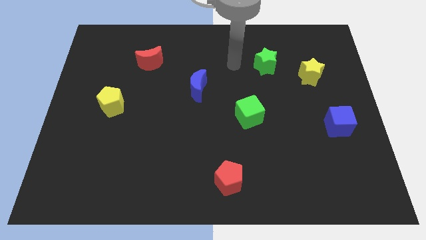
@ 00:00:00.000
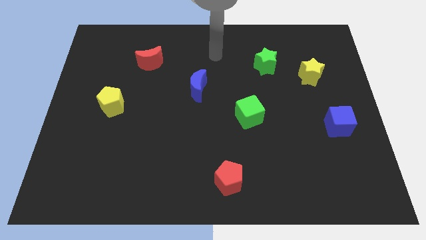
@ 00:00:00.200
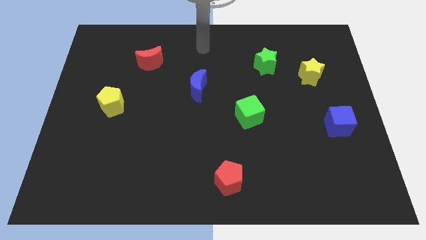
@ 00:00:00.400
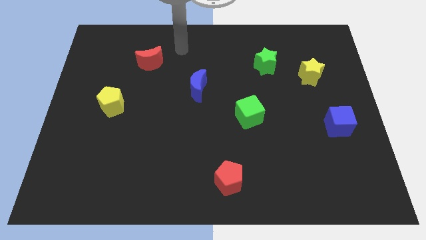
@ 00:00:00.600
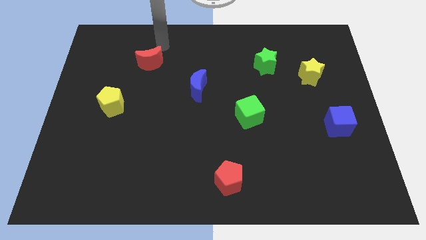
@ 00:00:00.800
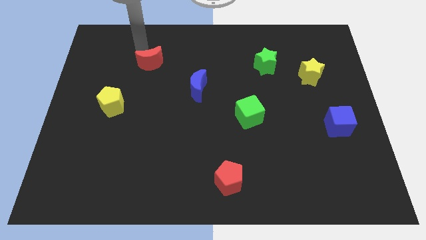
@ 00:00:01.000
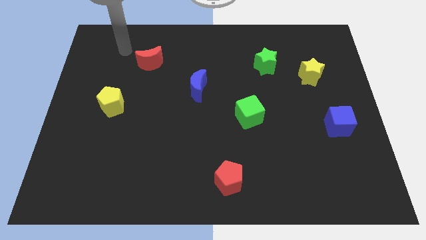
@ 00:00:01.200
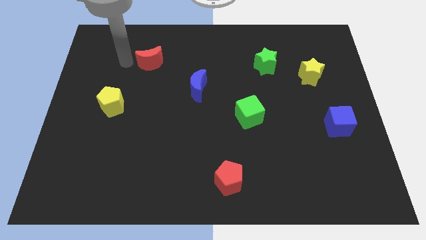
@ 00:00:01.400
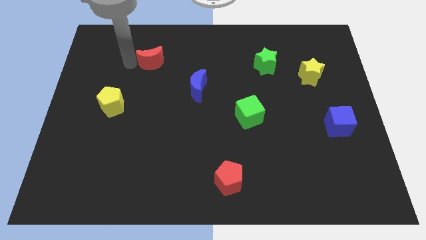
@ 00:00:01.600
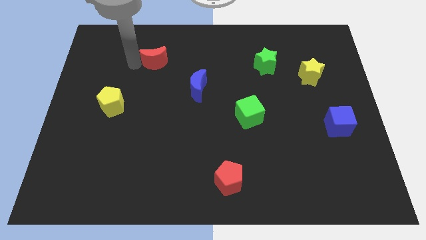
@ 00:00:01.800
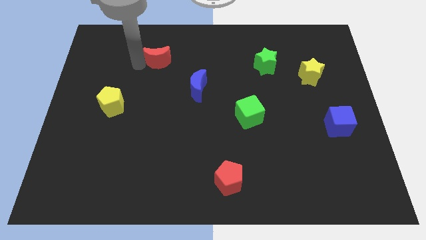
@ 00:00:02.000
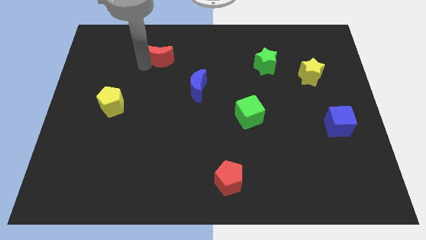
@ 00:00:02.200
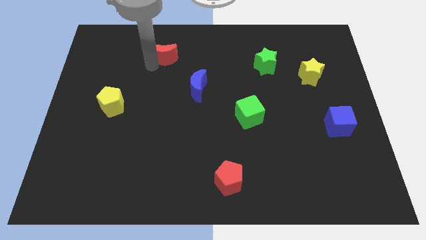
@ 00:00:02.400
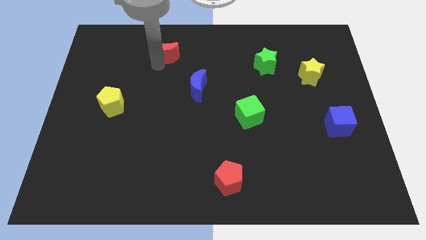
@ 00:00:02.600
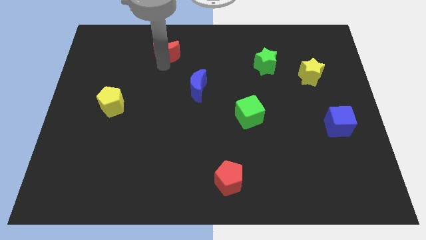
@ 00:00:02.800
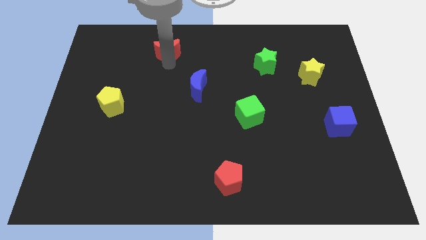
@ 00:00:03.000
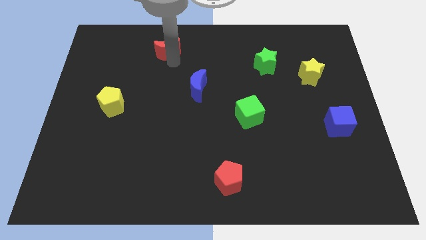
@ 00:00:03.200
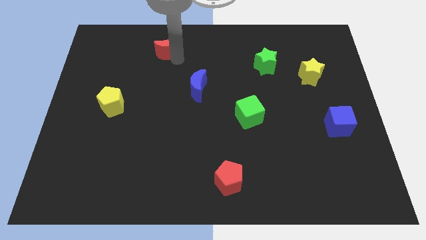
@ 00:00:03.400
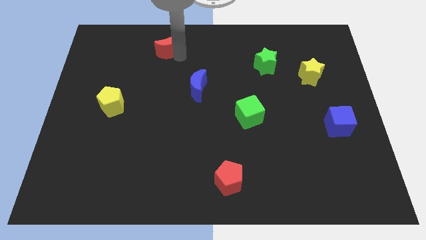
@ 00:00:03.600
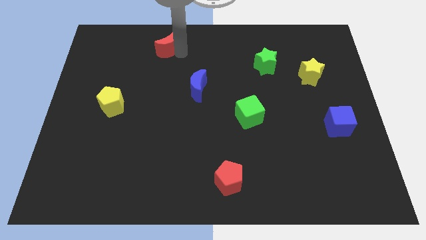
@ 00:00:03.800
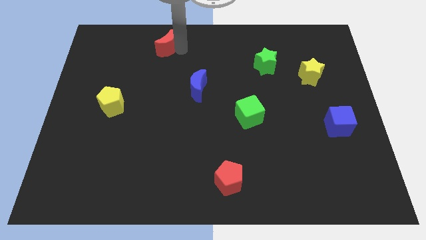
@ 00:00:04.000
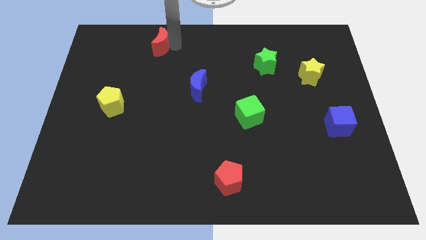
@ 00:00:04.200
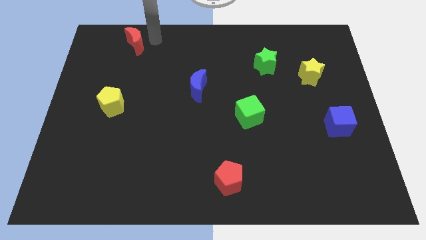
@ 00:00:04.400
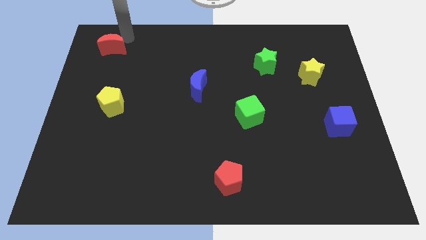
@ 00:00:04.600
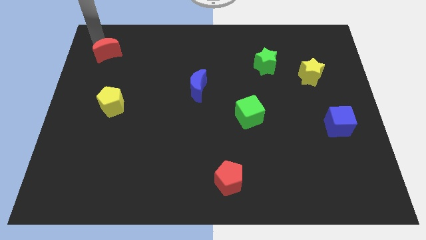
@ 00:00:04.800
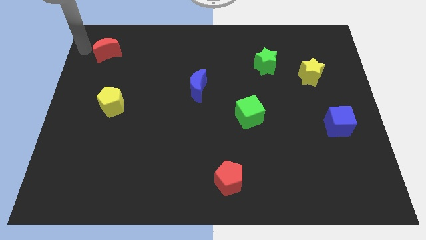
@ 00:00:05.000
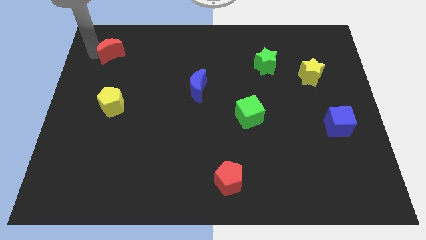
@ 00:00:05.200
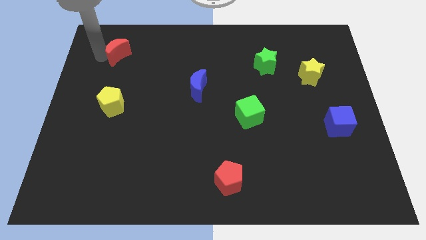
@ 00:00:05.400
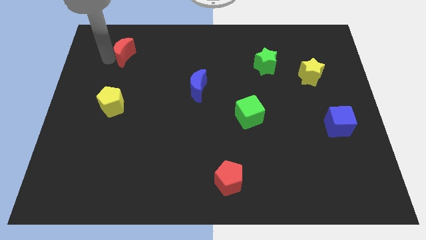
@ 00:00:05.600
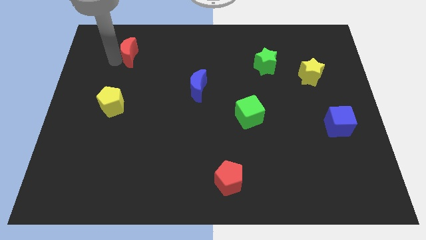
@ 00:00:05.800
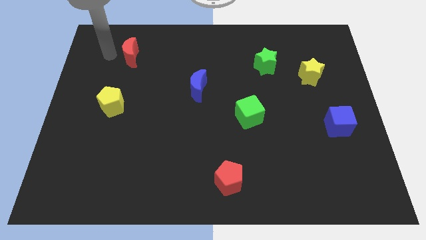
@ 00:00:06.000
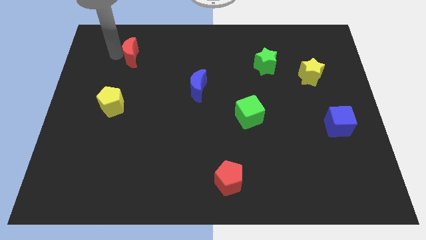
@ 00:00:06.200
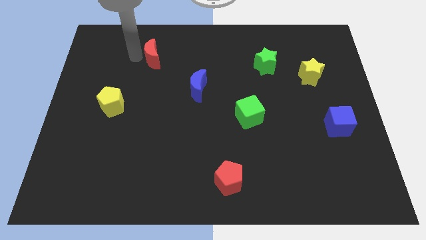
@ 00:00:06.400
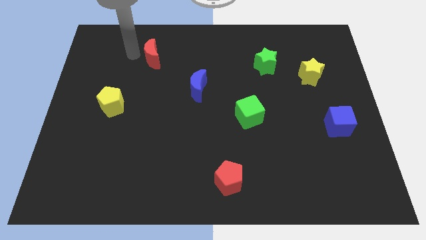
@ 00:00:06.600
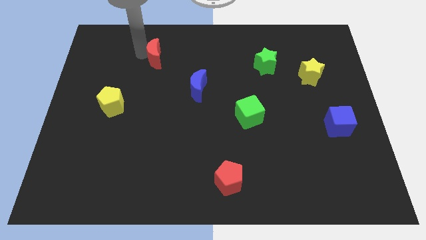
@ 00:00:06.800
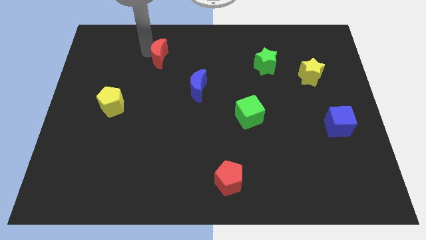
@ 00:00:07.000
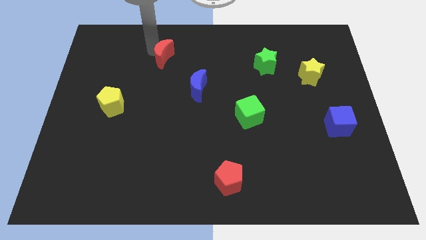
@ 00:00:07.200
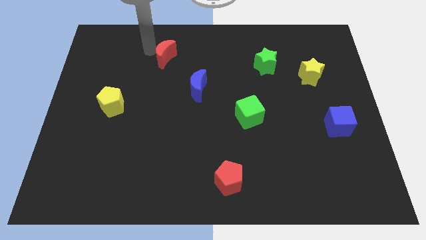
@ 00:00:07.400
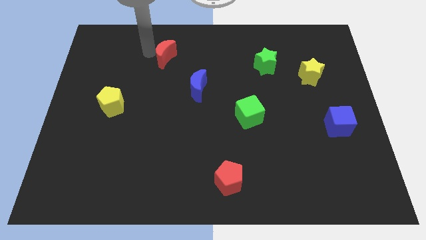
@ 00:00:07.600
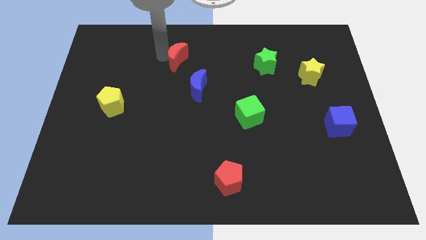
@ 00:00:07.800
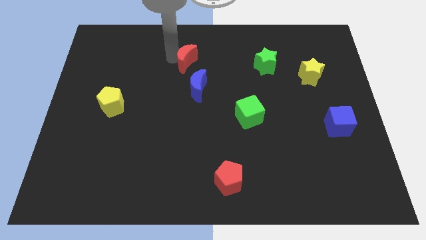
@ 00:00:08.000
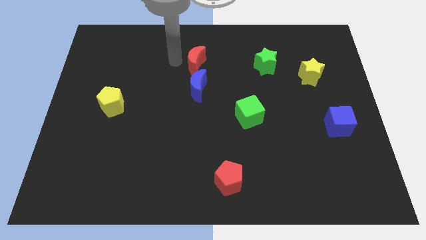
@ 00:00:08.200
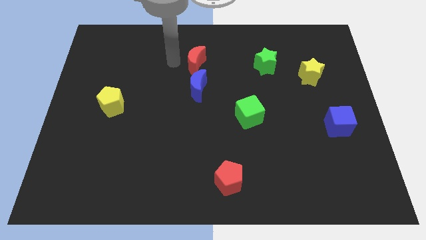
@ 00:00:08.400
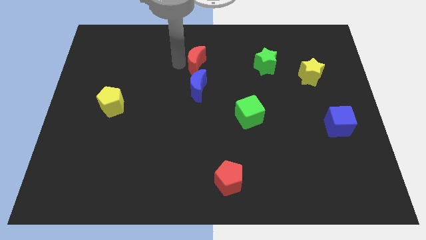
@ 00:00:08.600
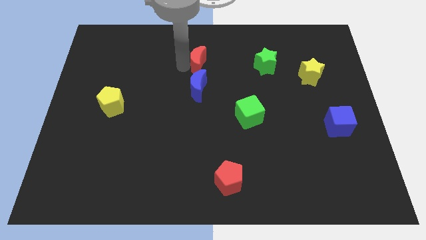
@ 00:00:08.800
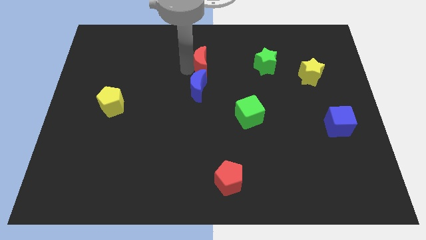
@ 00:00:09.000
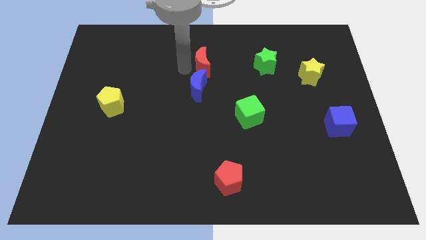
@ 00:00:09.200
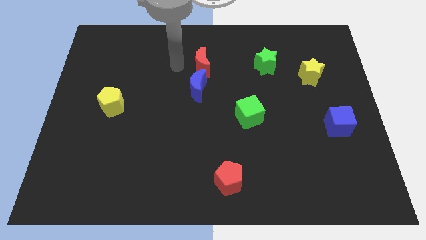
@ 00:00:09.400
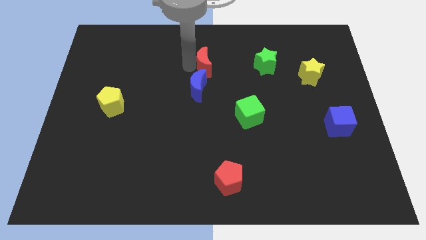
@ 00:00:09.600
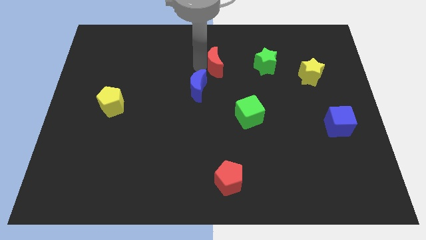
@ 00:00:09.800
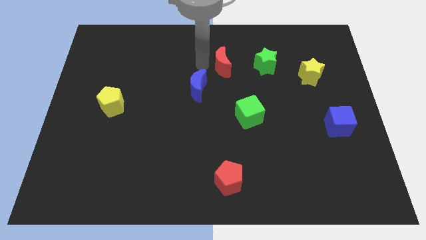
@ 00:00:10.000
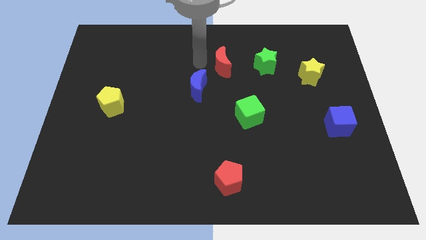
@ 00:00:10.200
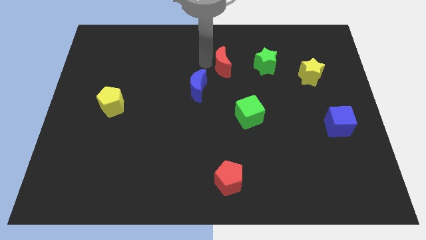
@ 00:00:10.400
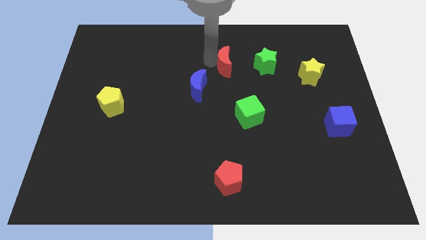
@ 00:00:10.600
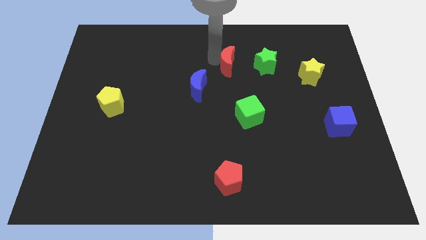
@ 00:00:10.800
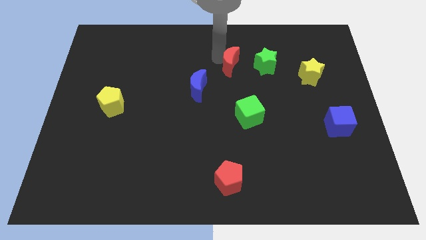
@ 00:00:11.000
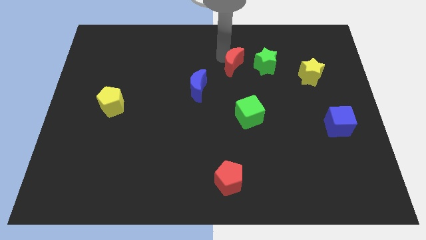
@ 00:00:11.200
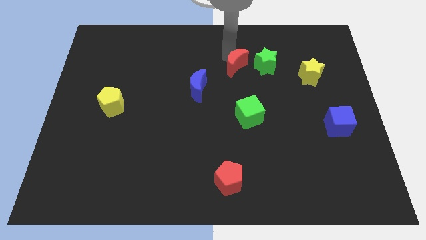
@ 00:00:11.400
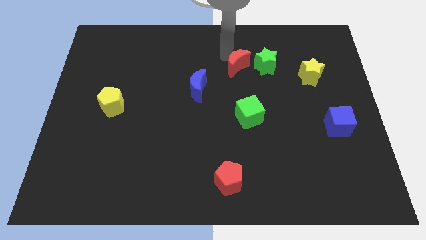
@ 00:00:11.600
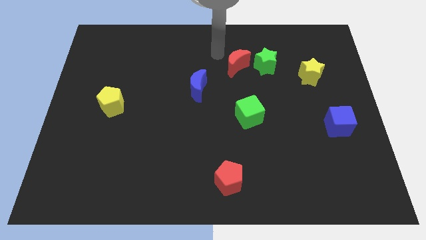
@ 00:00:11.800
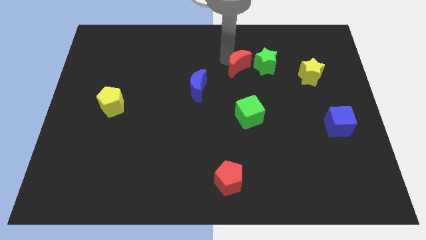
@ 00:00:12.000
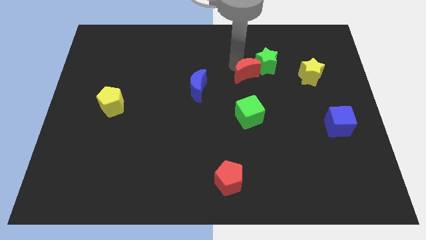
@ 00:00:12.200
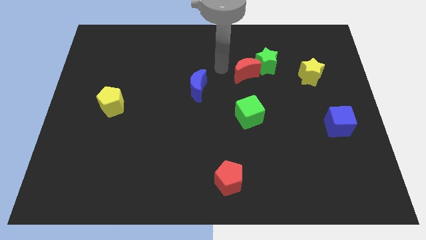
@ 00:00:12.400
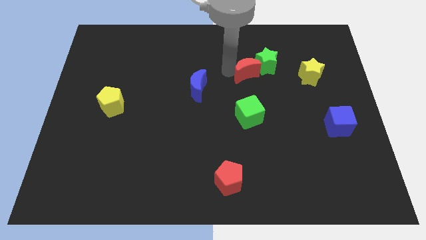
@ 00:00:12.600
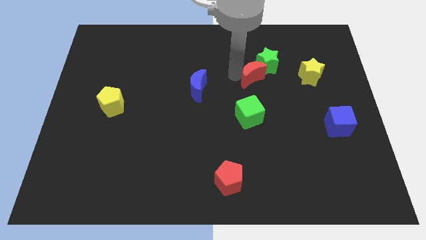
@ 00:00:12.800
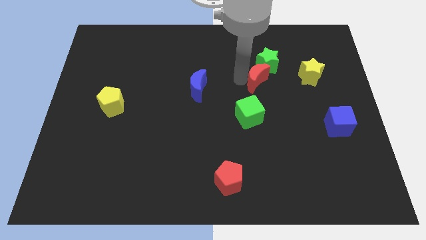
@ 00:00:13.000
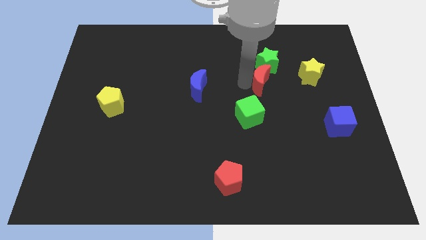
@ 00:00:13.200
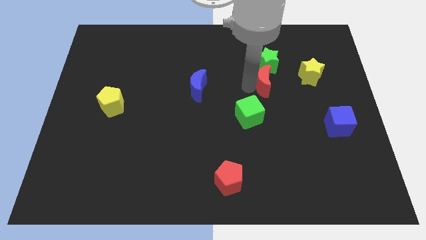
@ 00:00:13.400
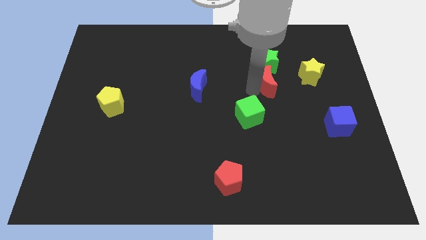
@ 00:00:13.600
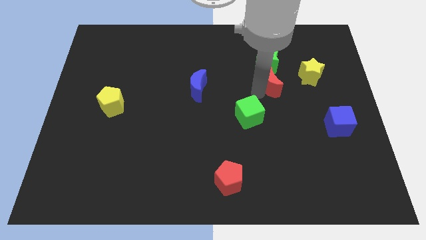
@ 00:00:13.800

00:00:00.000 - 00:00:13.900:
move the red moon diagonally down and to the right of the green star
